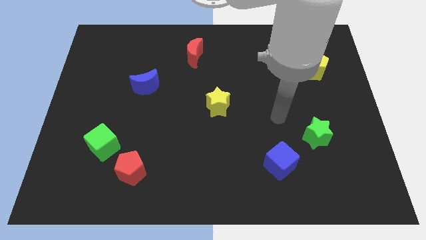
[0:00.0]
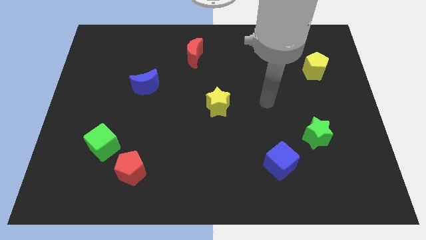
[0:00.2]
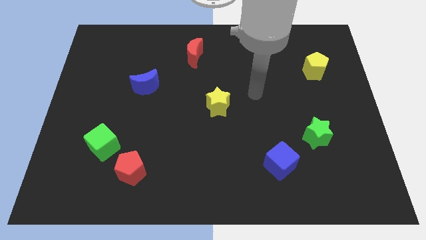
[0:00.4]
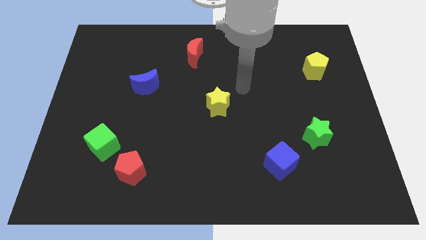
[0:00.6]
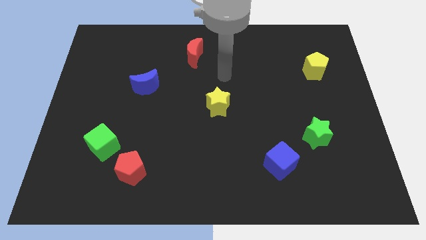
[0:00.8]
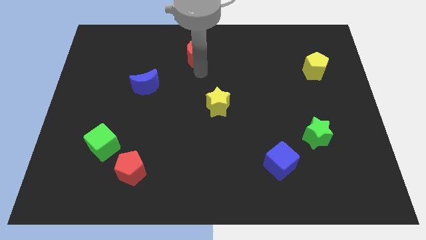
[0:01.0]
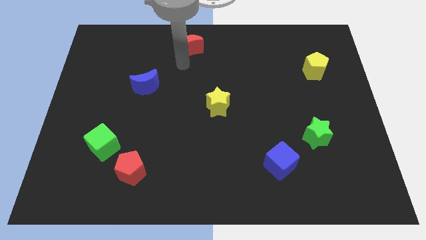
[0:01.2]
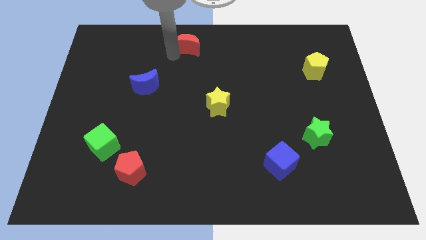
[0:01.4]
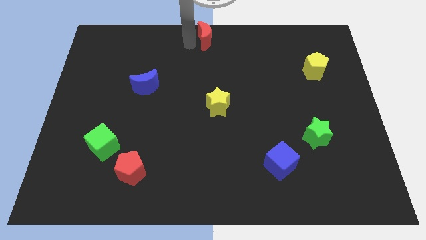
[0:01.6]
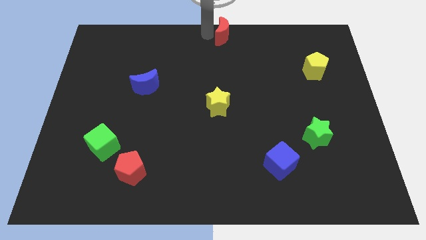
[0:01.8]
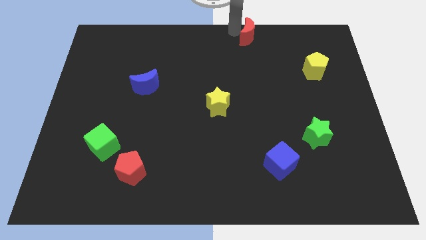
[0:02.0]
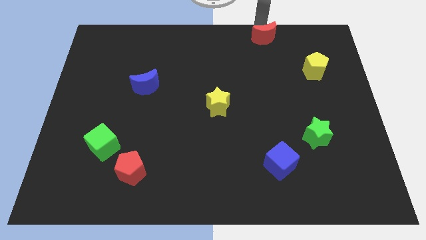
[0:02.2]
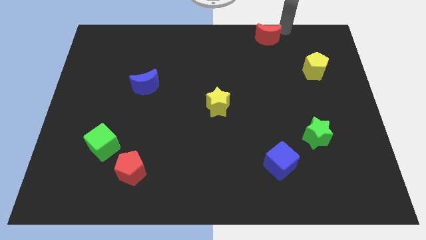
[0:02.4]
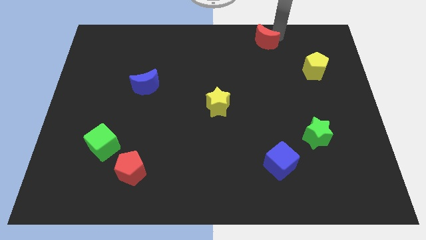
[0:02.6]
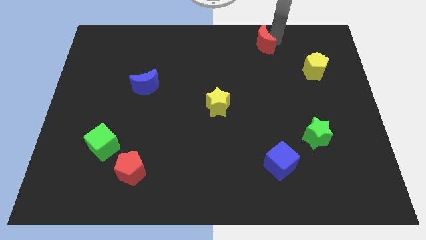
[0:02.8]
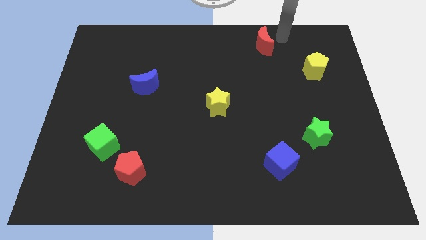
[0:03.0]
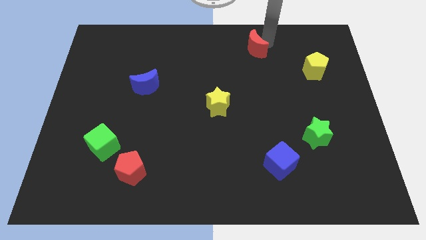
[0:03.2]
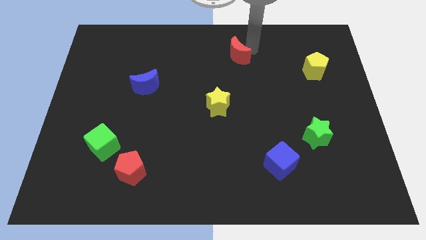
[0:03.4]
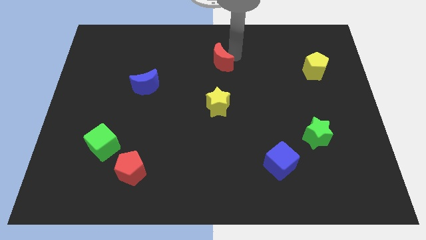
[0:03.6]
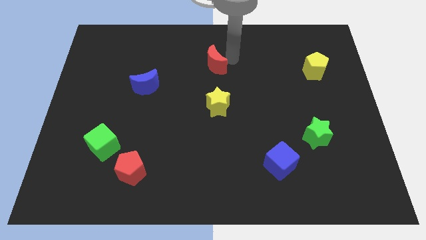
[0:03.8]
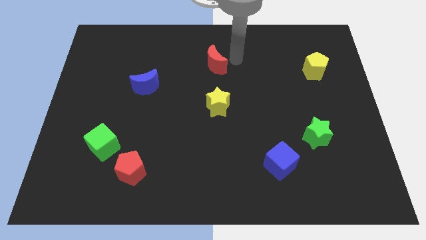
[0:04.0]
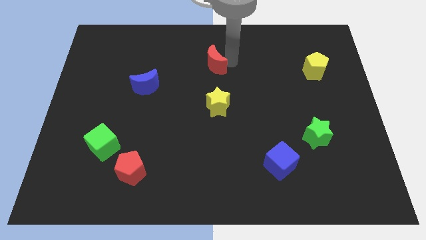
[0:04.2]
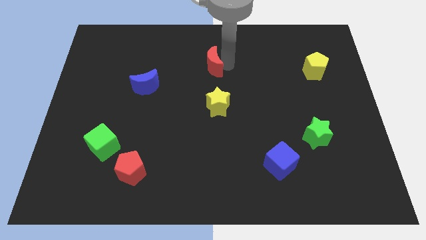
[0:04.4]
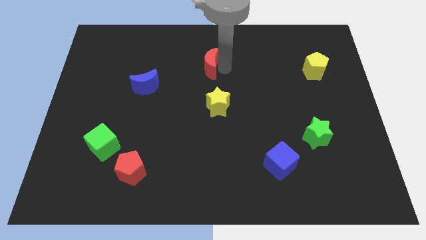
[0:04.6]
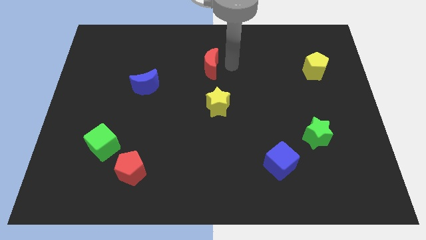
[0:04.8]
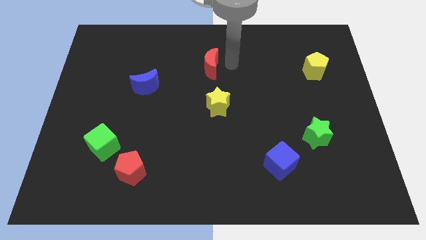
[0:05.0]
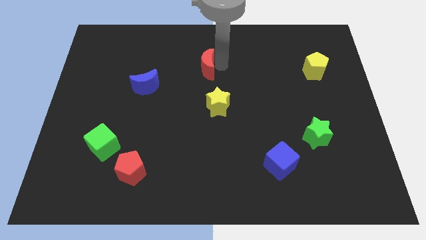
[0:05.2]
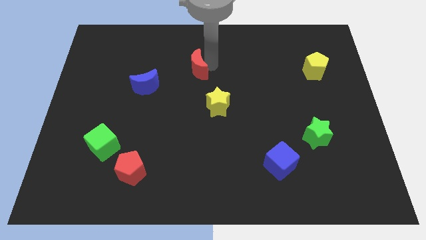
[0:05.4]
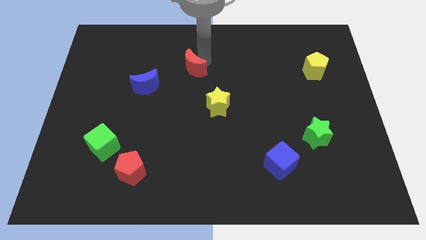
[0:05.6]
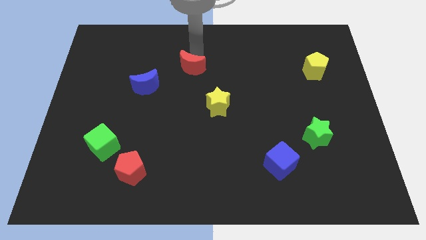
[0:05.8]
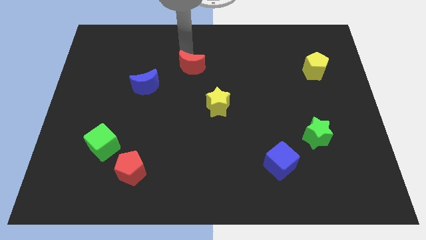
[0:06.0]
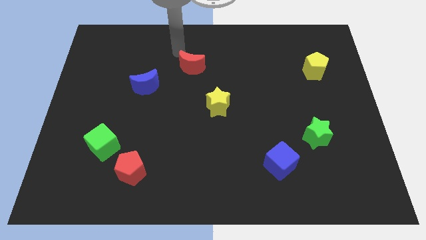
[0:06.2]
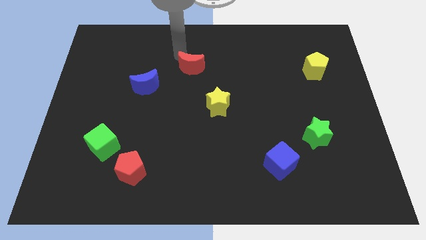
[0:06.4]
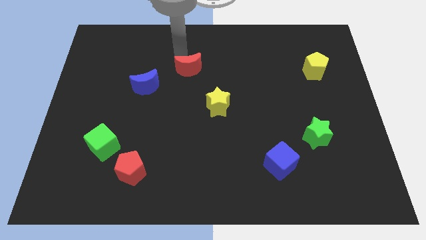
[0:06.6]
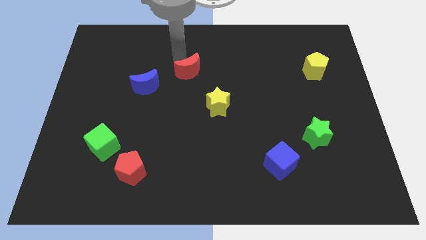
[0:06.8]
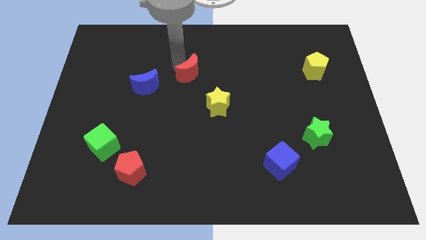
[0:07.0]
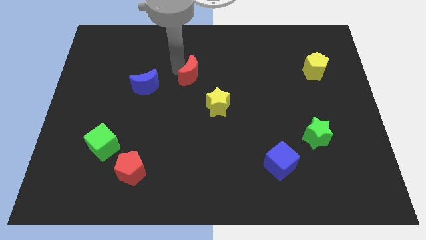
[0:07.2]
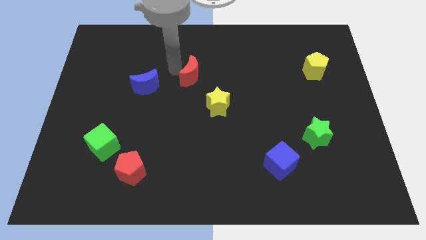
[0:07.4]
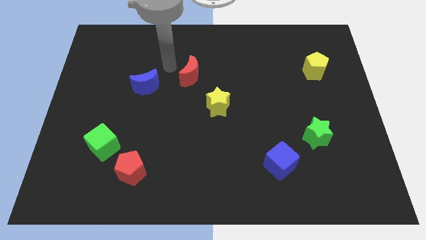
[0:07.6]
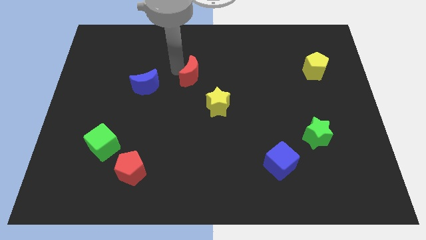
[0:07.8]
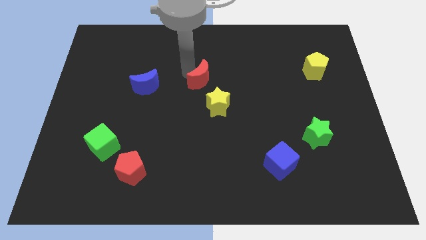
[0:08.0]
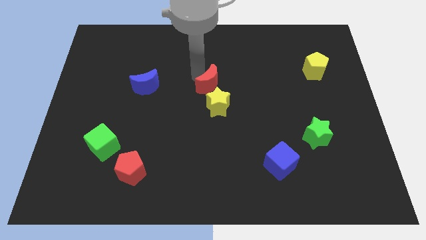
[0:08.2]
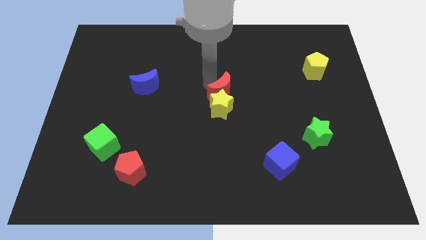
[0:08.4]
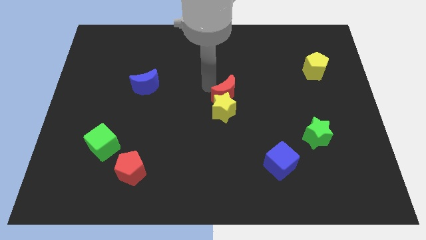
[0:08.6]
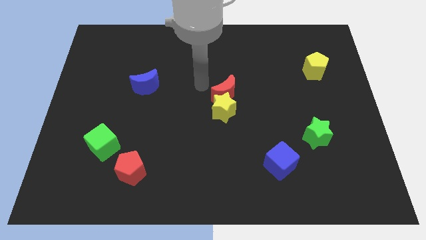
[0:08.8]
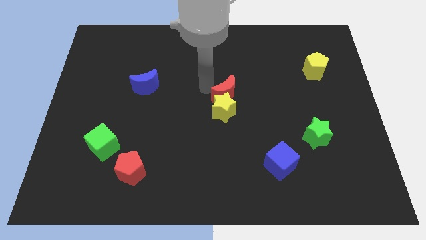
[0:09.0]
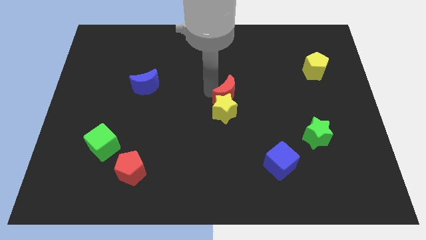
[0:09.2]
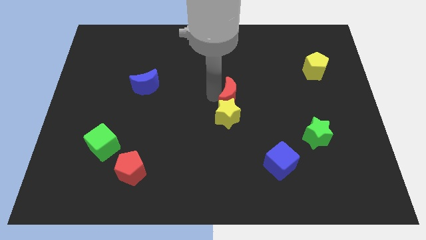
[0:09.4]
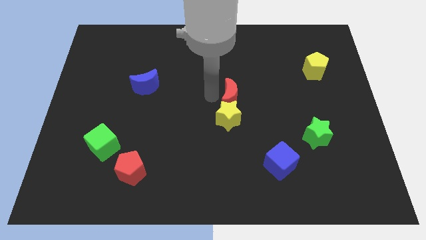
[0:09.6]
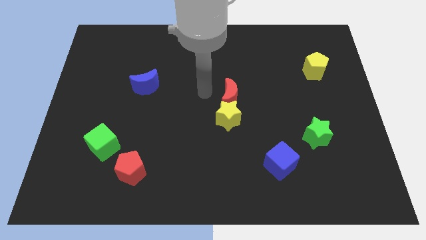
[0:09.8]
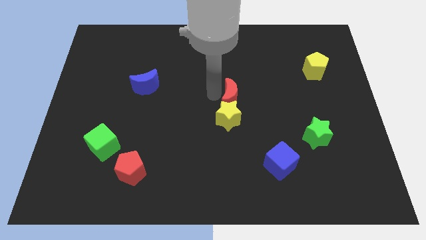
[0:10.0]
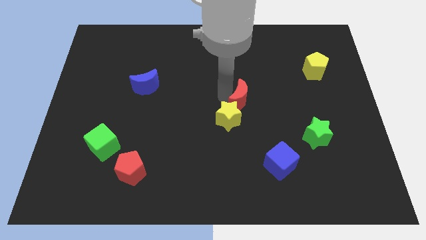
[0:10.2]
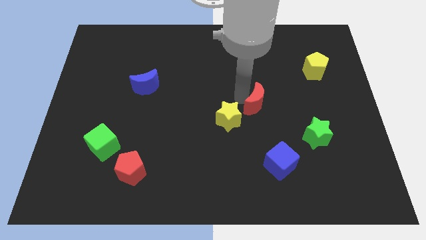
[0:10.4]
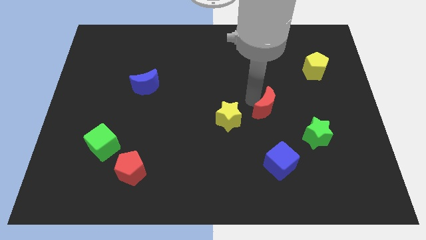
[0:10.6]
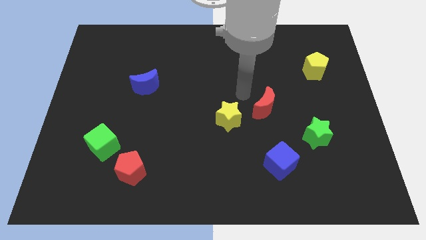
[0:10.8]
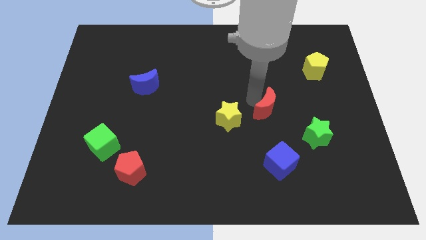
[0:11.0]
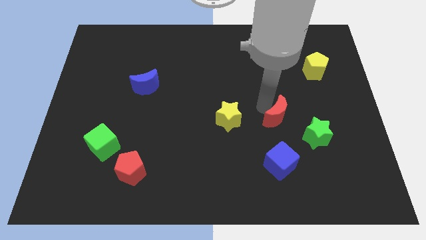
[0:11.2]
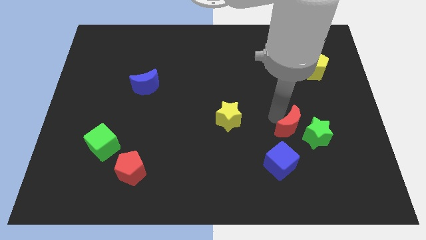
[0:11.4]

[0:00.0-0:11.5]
put the red moon towards the green star
